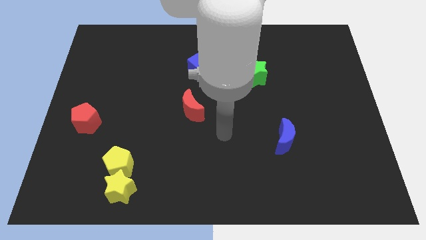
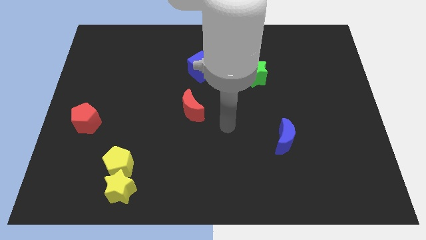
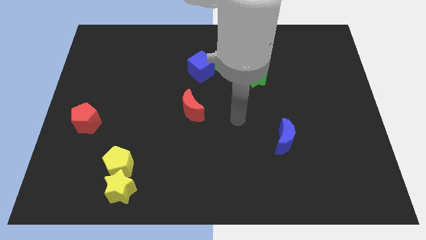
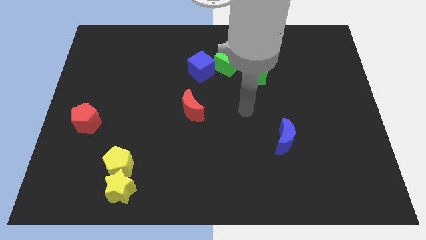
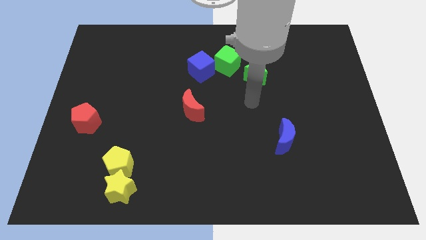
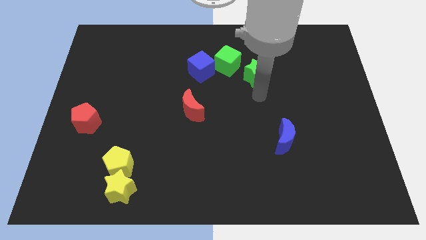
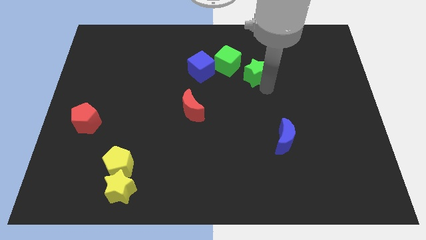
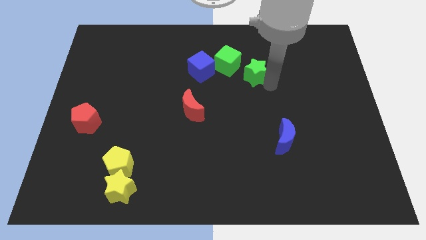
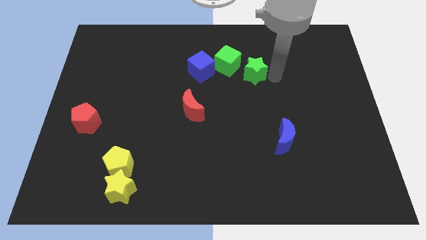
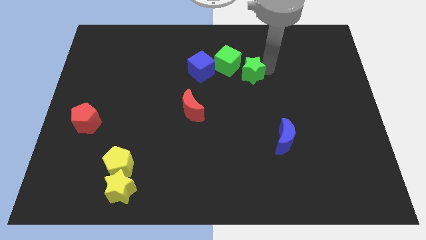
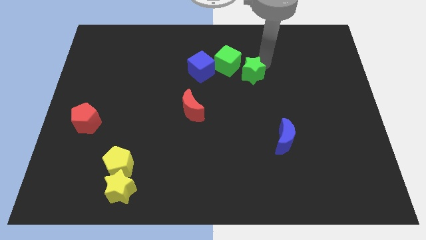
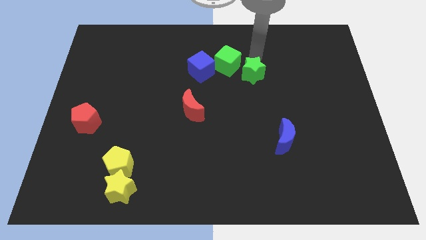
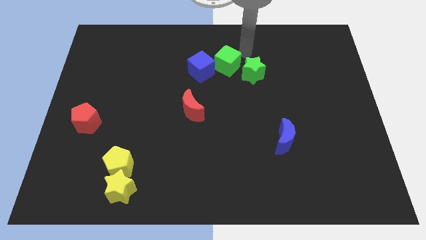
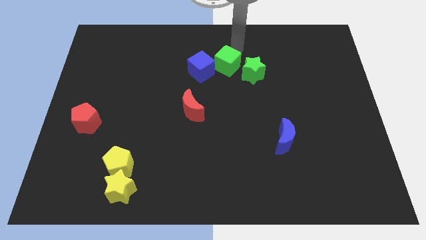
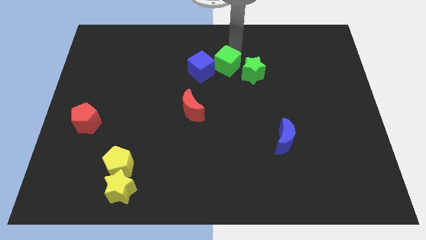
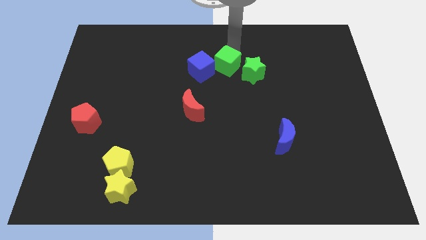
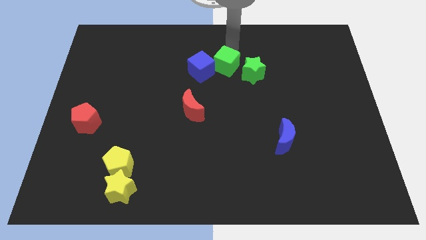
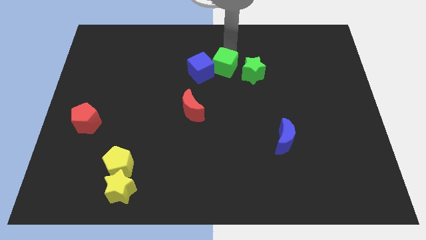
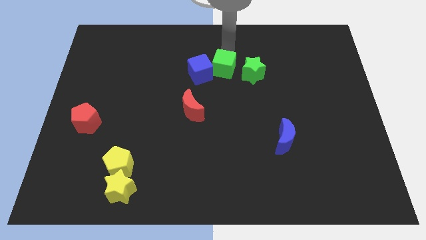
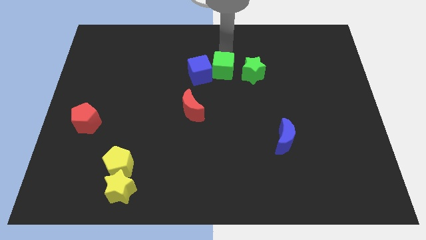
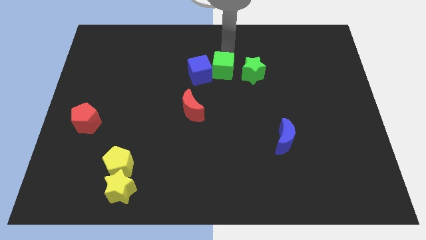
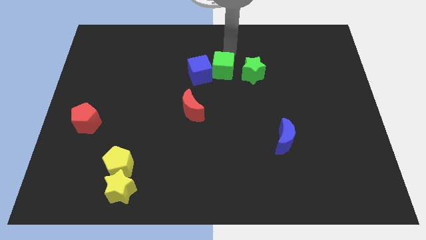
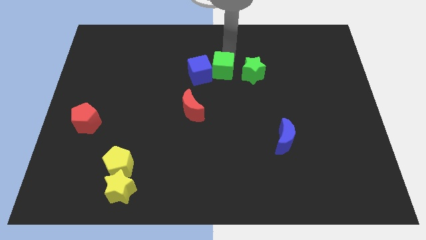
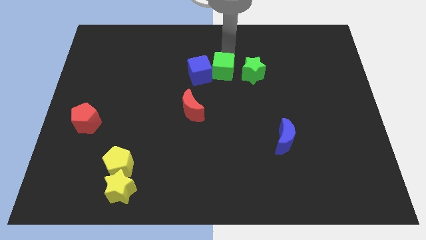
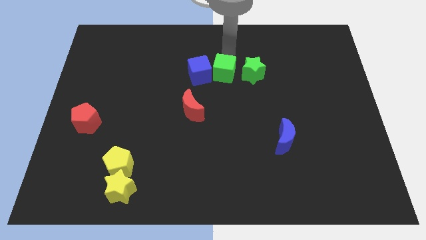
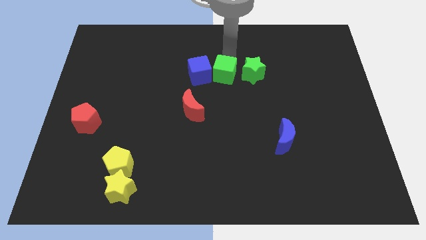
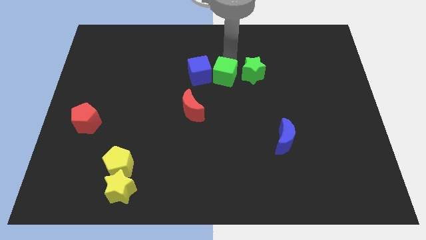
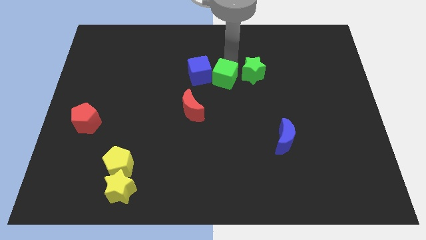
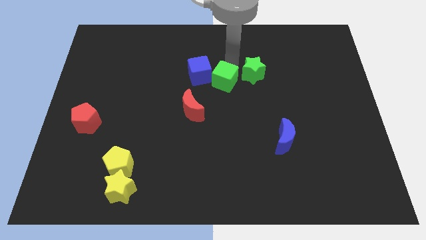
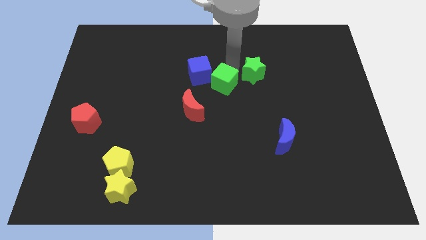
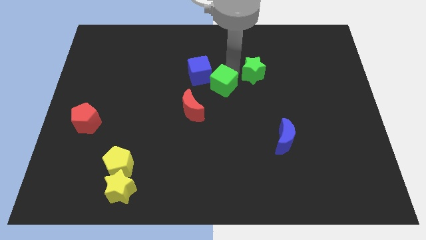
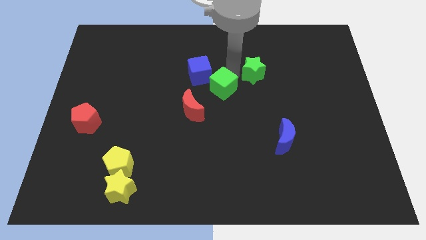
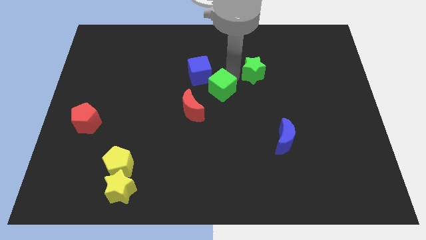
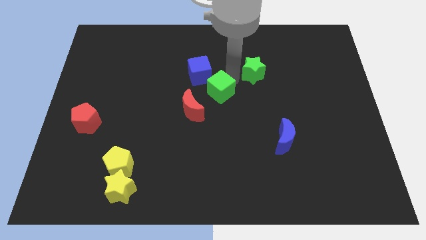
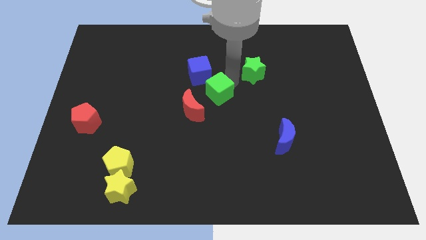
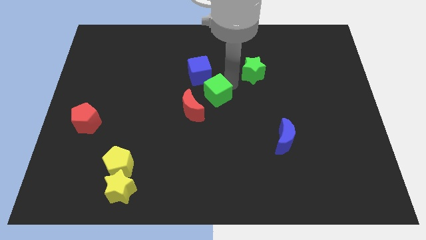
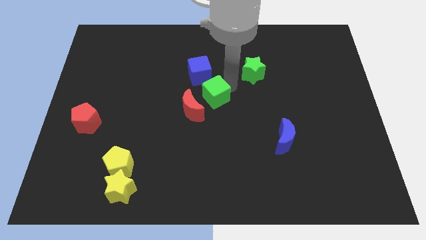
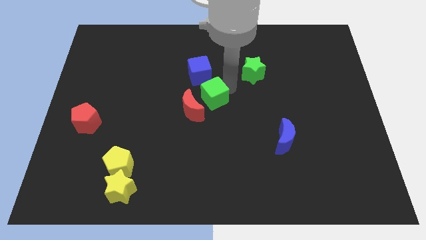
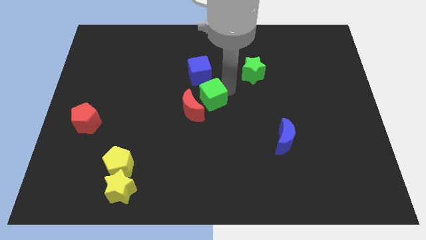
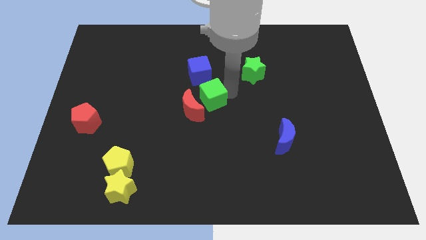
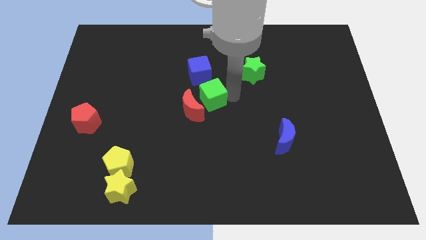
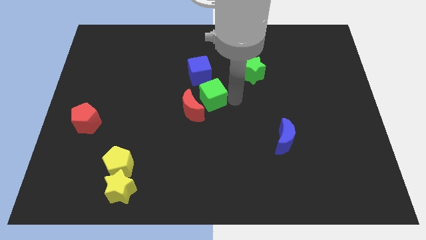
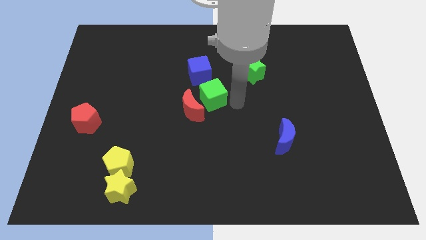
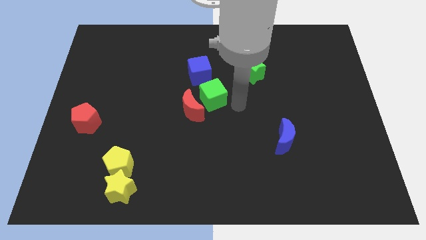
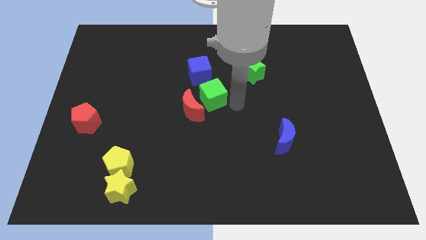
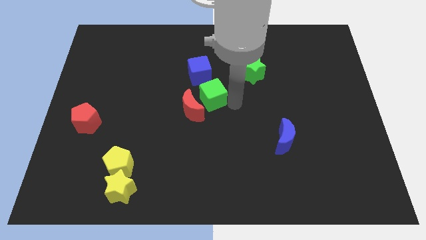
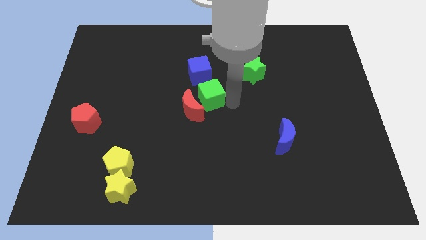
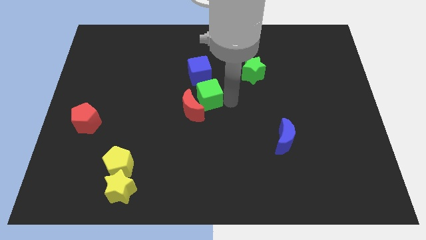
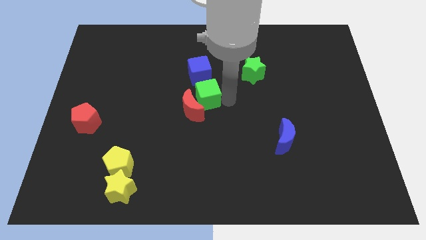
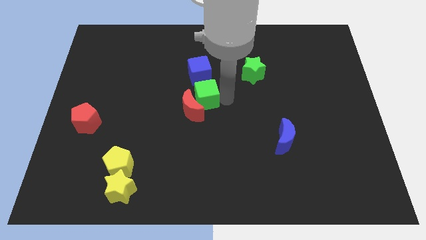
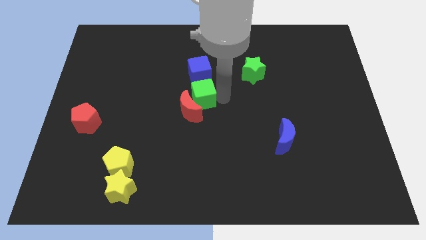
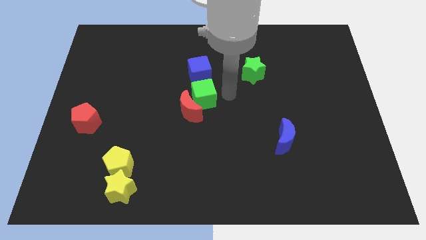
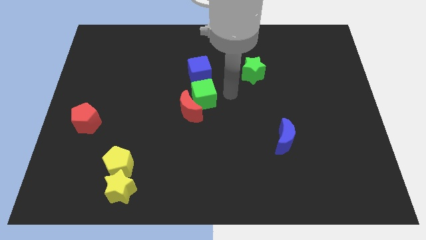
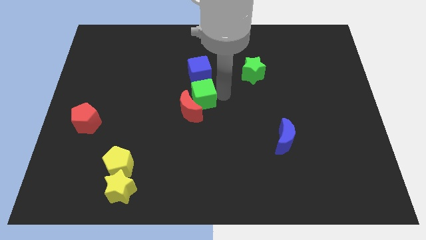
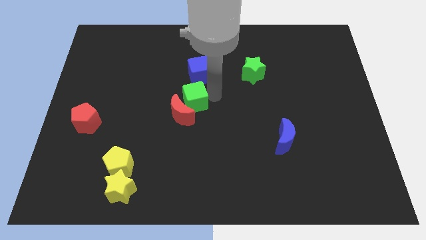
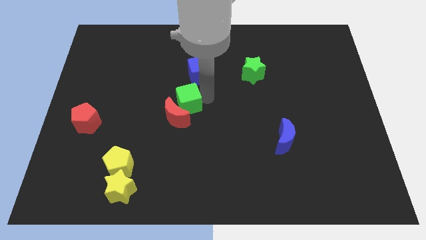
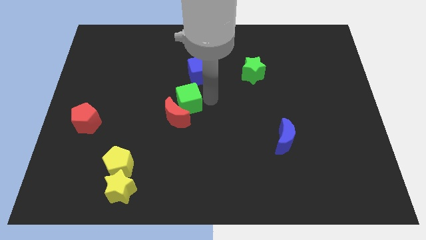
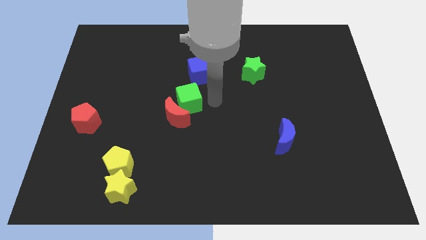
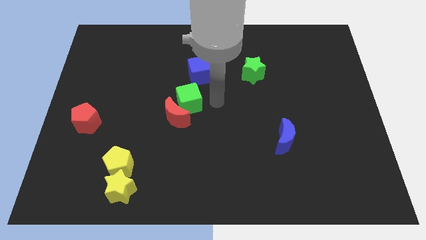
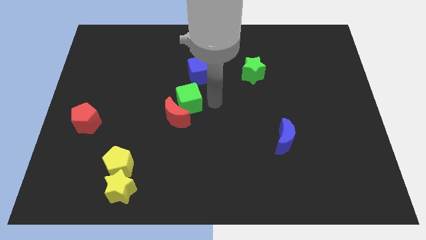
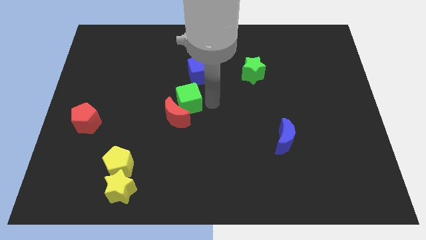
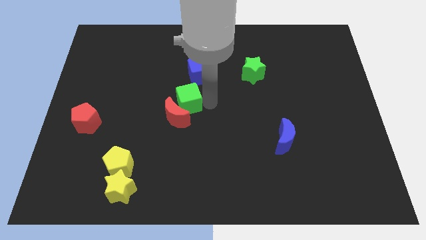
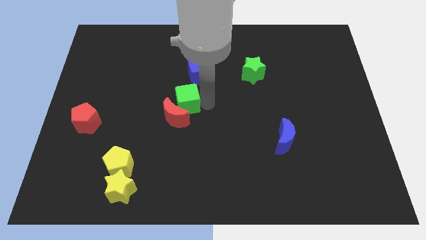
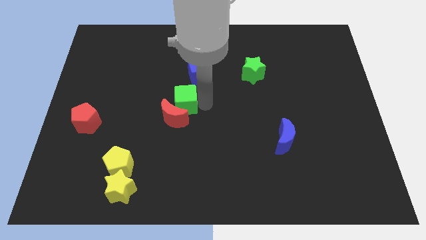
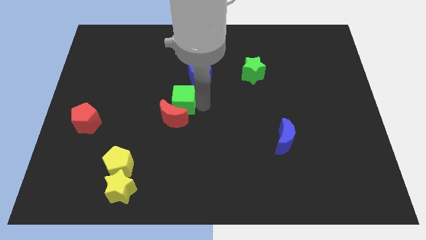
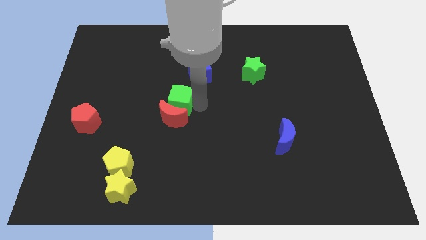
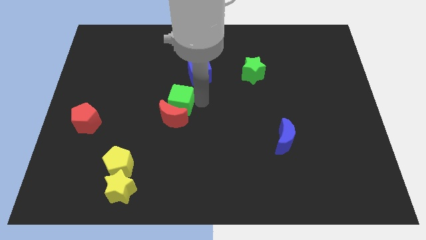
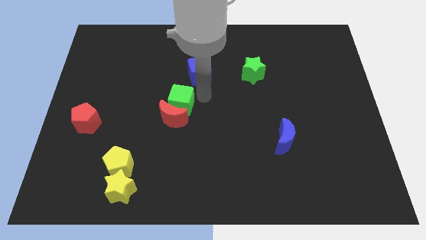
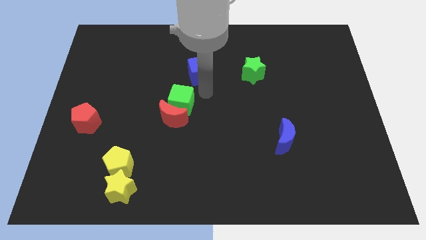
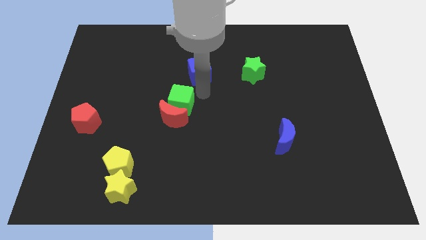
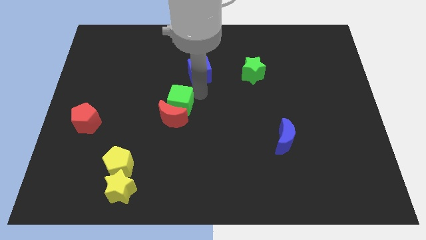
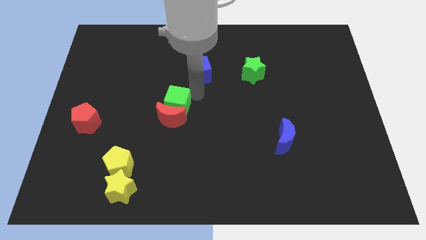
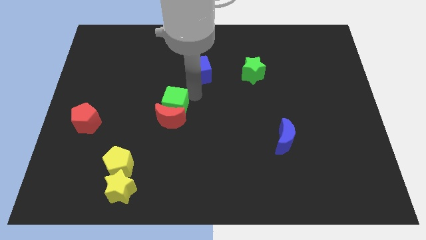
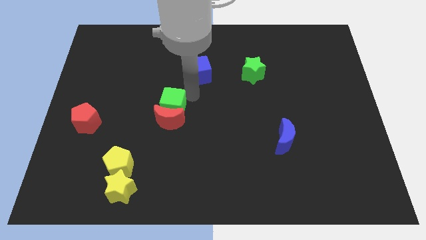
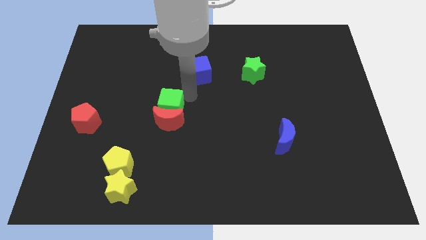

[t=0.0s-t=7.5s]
slide the green cube diagonally down and left

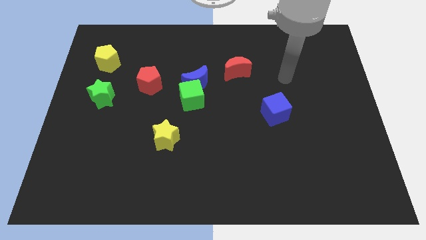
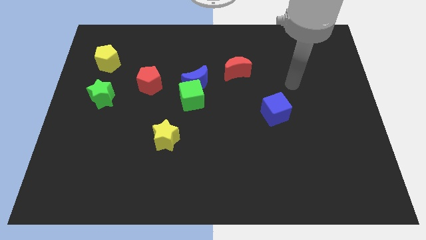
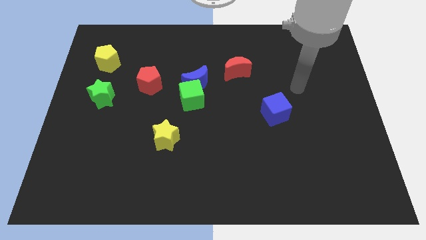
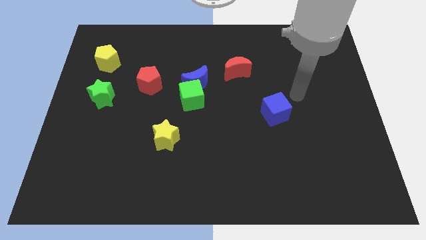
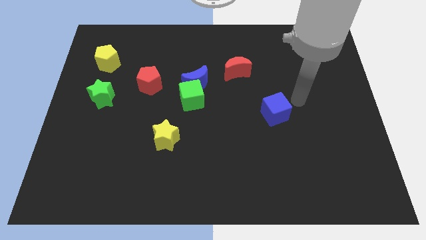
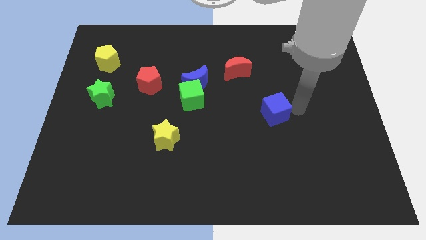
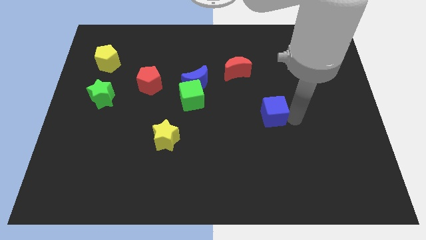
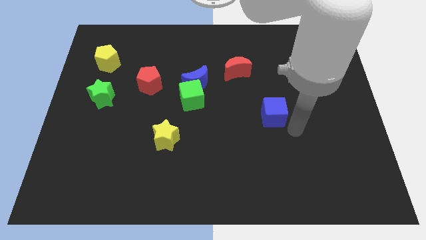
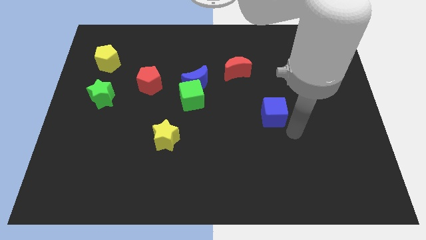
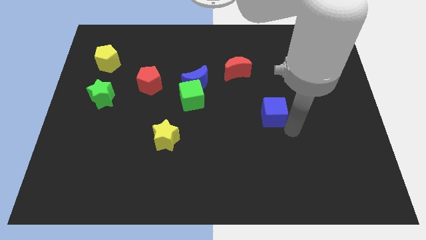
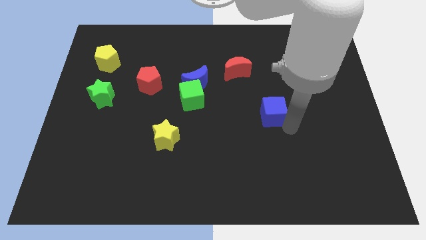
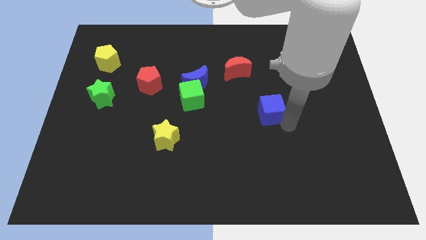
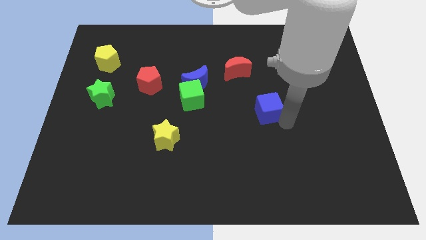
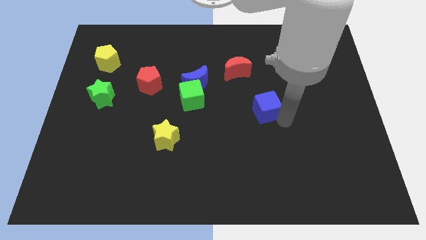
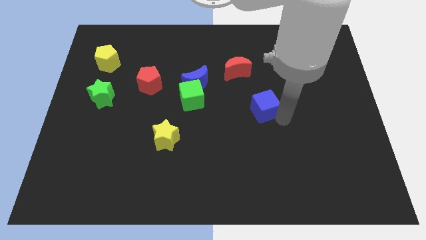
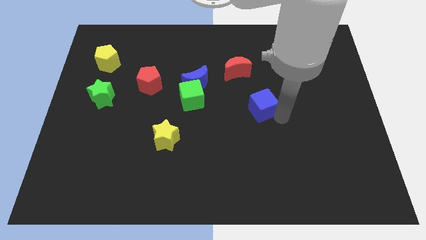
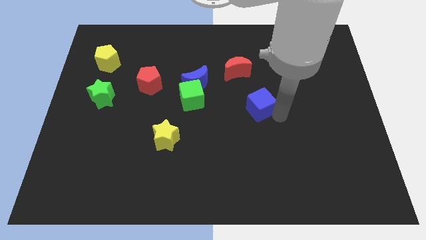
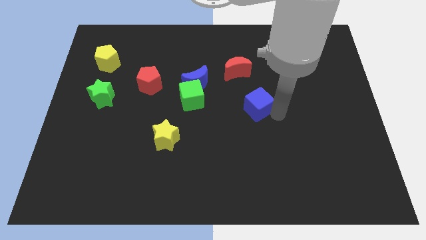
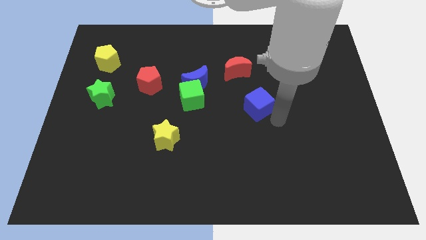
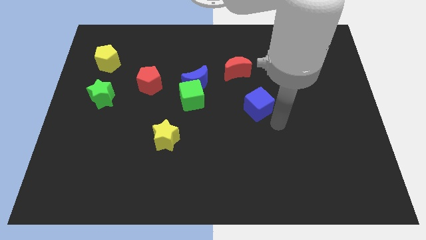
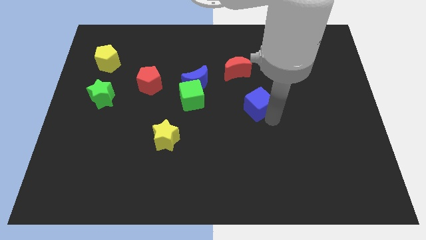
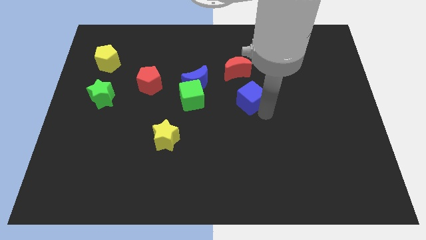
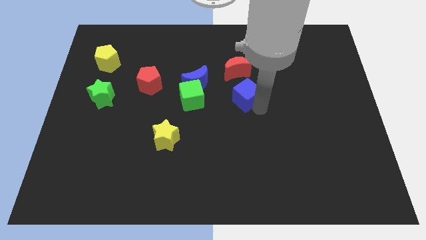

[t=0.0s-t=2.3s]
move the blue cube a little diagonally upwards and to the left
